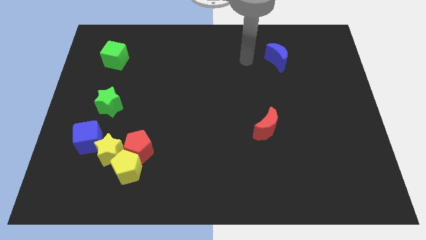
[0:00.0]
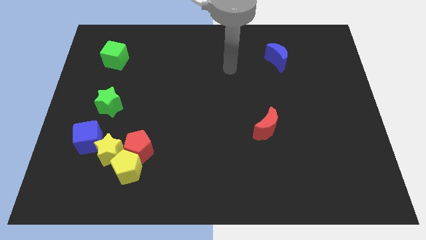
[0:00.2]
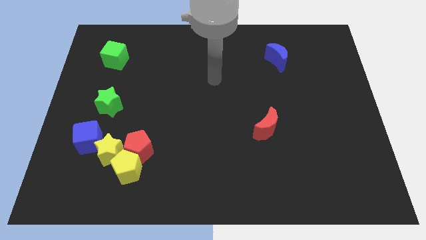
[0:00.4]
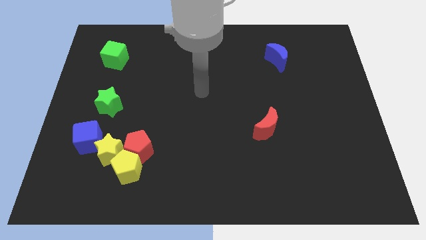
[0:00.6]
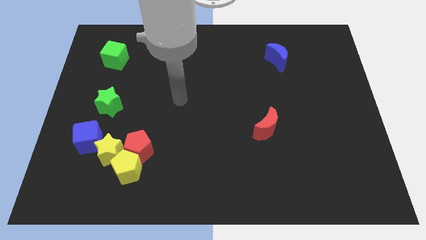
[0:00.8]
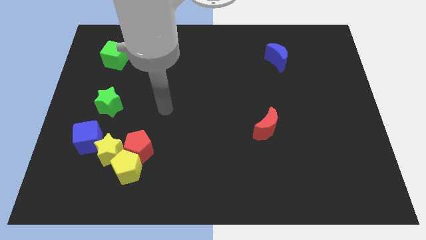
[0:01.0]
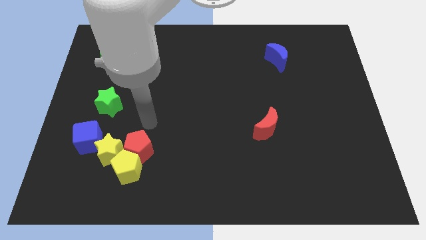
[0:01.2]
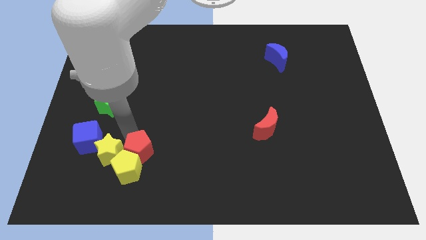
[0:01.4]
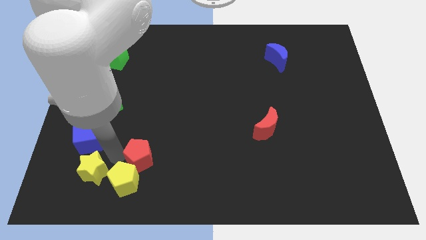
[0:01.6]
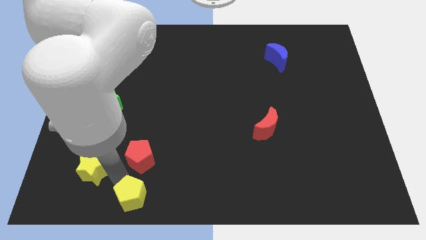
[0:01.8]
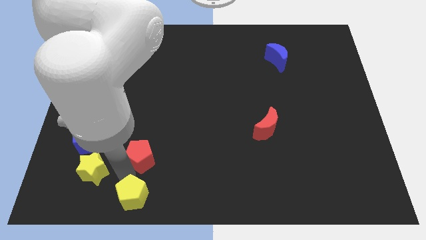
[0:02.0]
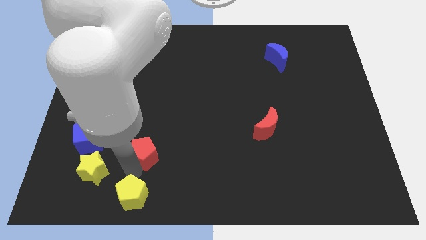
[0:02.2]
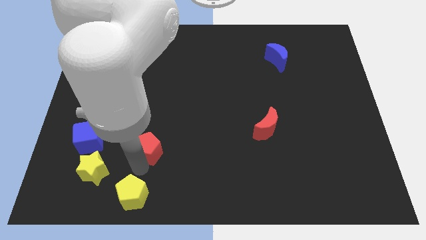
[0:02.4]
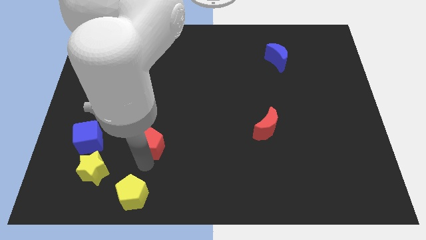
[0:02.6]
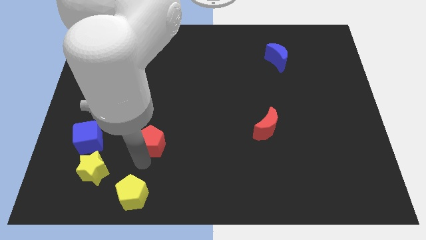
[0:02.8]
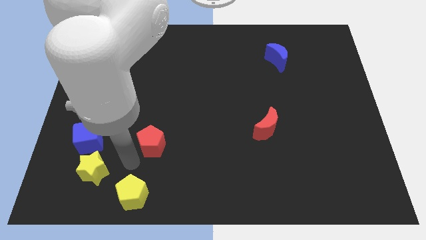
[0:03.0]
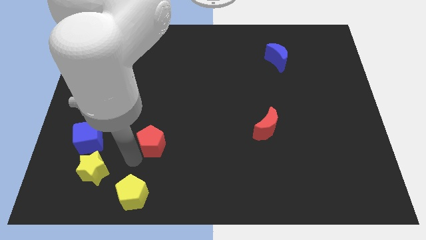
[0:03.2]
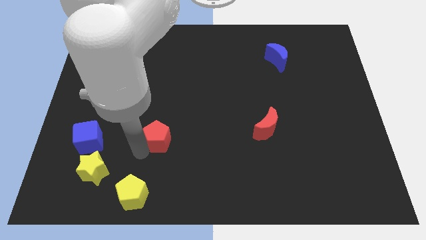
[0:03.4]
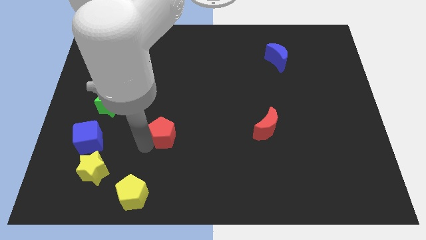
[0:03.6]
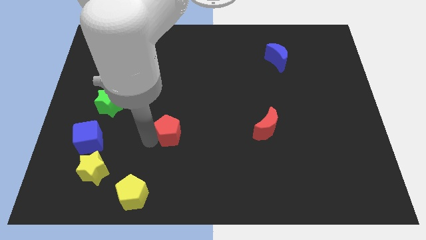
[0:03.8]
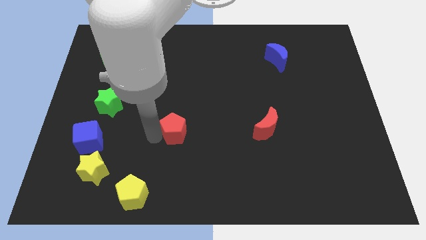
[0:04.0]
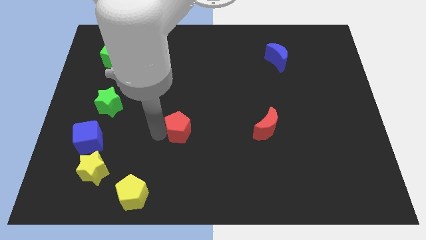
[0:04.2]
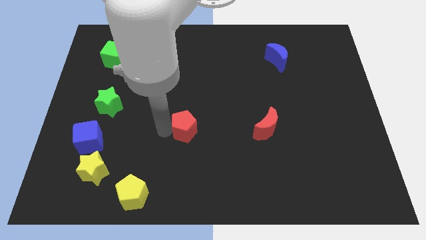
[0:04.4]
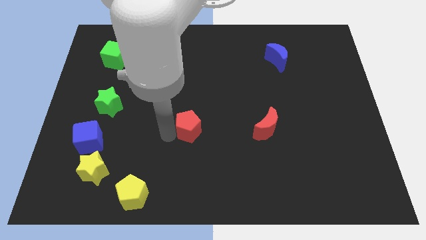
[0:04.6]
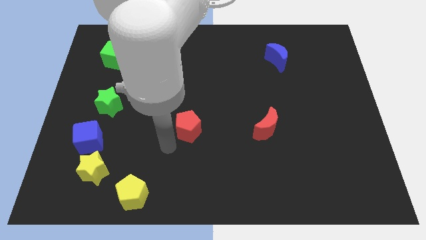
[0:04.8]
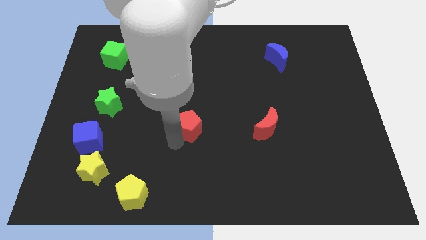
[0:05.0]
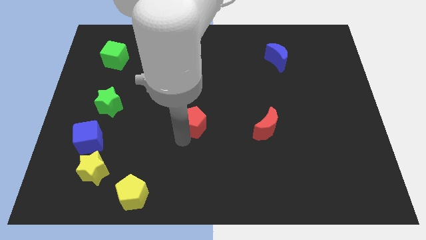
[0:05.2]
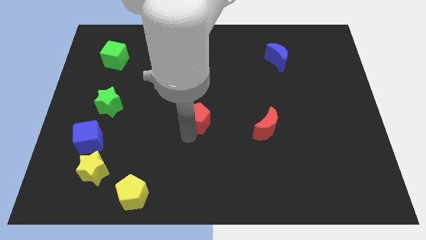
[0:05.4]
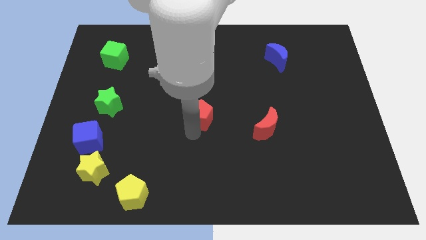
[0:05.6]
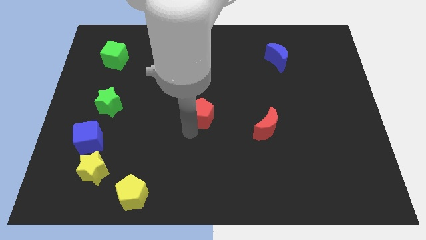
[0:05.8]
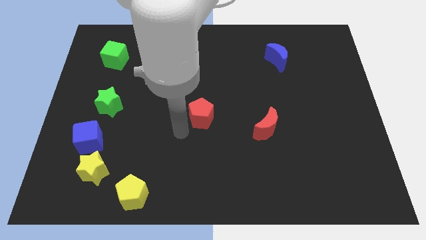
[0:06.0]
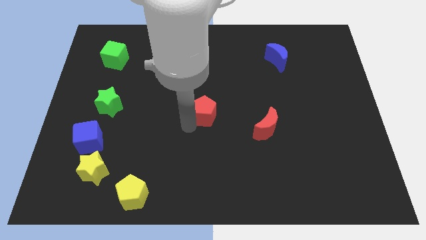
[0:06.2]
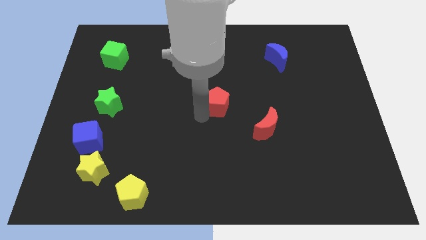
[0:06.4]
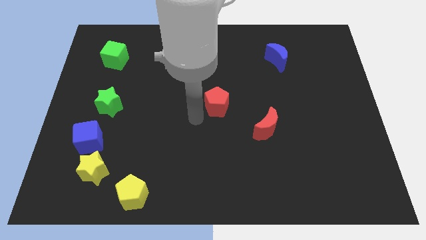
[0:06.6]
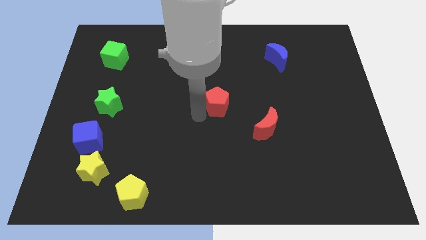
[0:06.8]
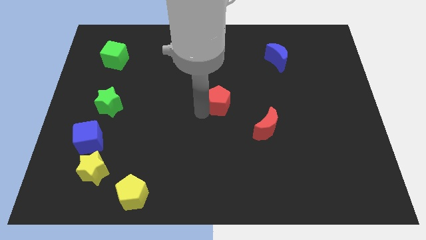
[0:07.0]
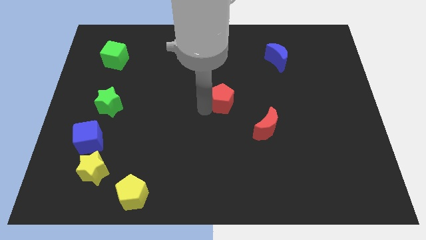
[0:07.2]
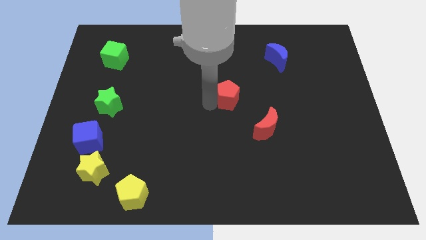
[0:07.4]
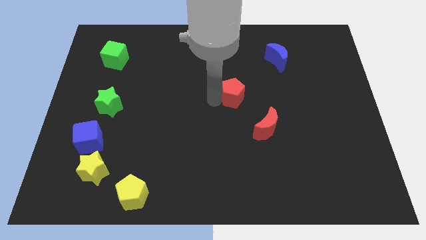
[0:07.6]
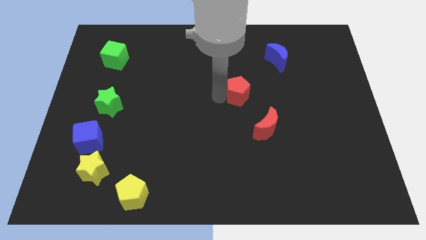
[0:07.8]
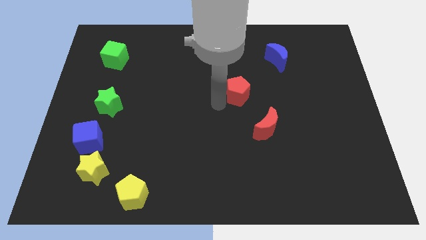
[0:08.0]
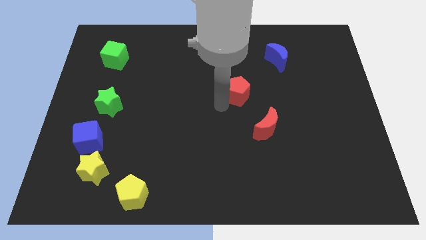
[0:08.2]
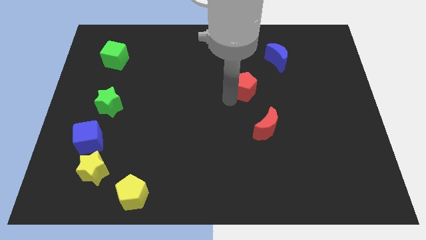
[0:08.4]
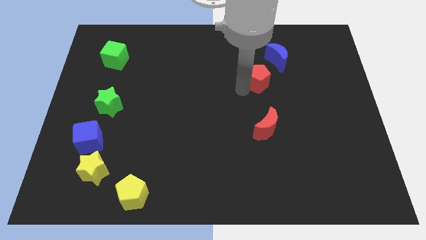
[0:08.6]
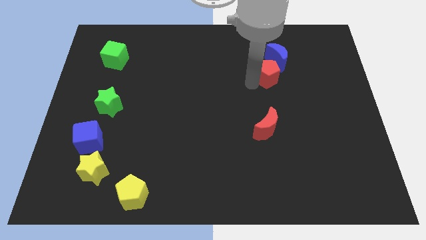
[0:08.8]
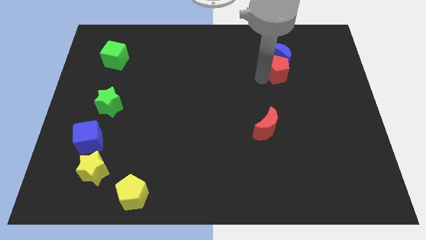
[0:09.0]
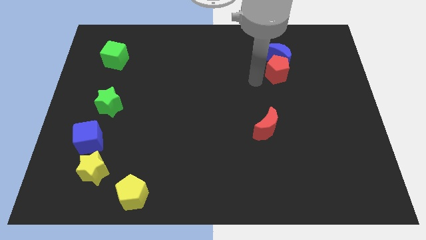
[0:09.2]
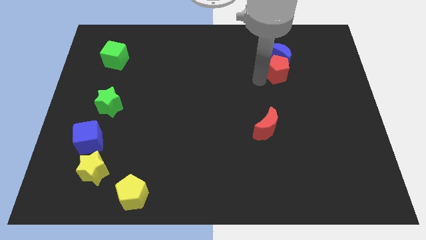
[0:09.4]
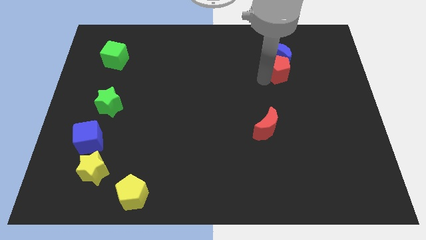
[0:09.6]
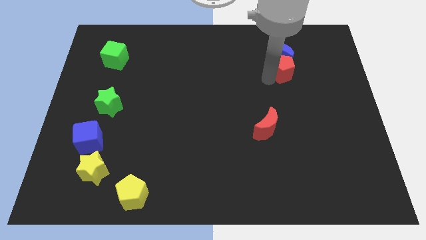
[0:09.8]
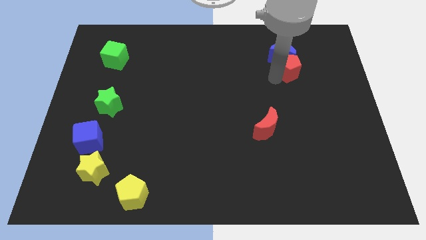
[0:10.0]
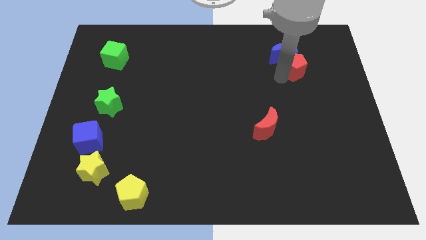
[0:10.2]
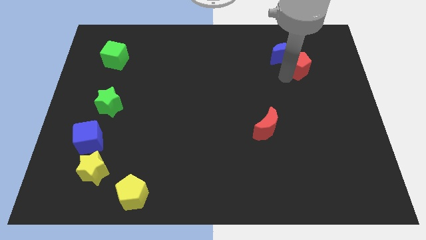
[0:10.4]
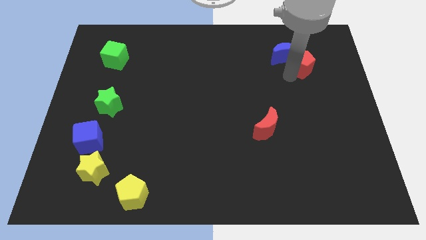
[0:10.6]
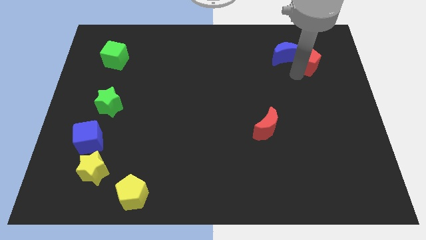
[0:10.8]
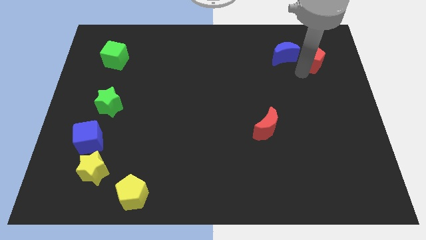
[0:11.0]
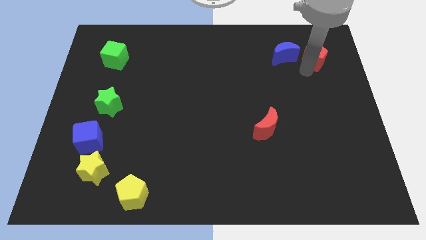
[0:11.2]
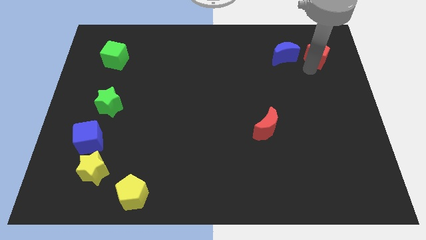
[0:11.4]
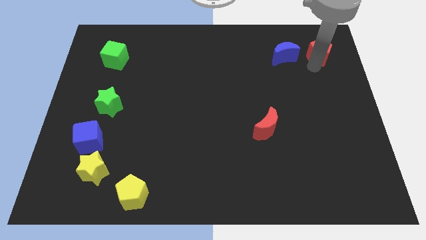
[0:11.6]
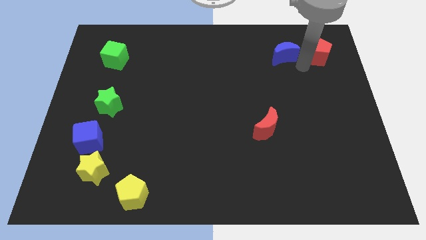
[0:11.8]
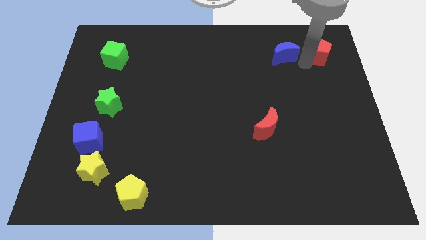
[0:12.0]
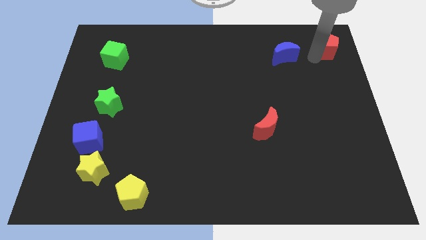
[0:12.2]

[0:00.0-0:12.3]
put the red pentagon to the top right of the board

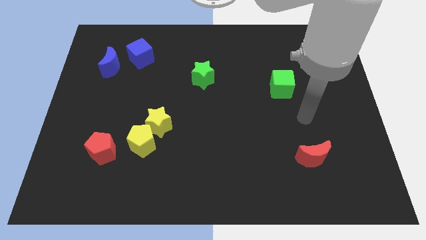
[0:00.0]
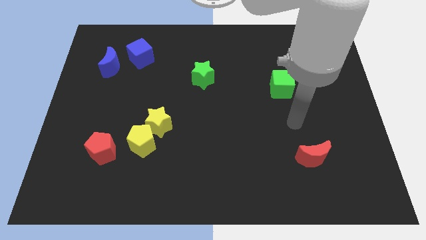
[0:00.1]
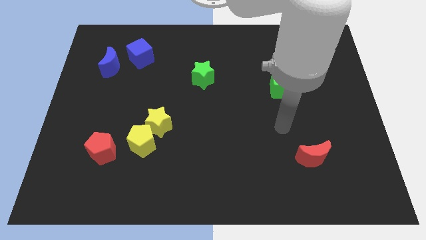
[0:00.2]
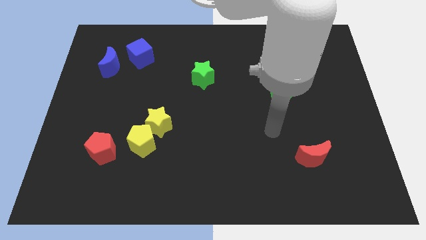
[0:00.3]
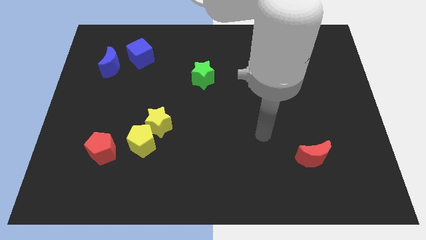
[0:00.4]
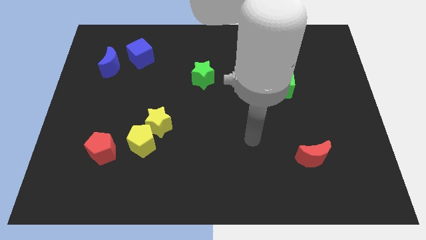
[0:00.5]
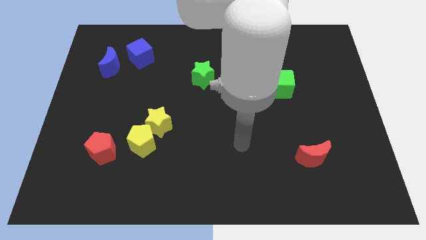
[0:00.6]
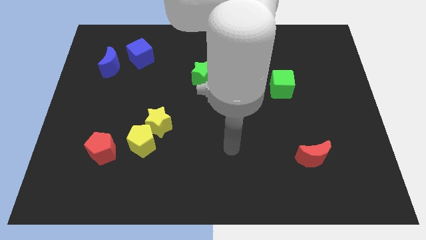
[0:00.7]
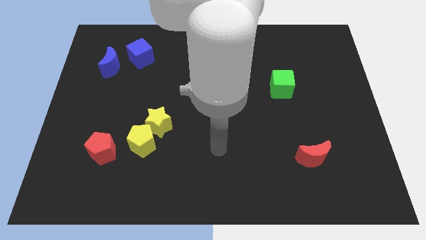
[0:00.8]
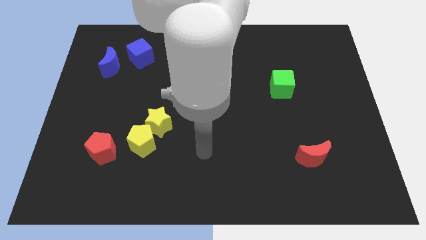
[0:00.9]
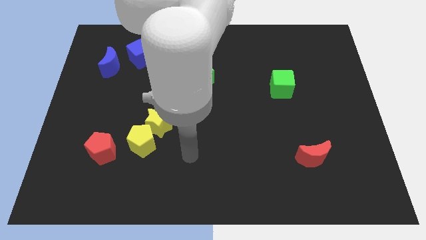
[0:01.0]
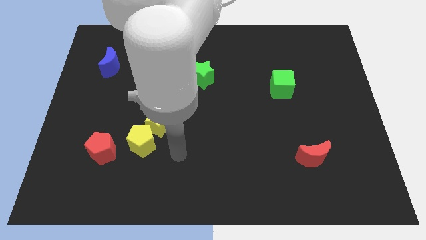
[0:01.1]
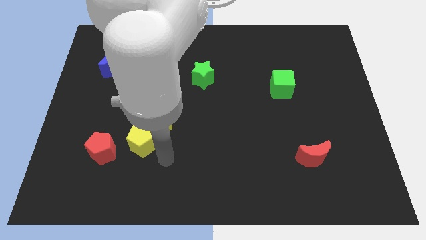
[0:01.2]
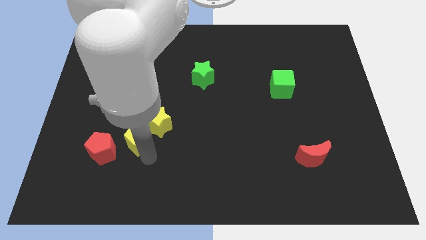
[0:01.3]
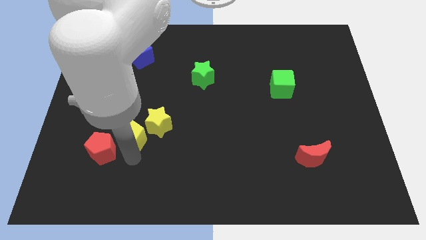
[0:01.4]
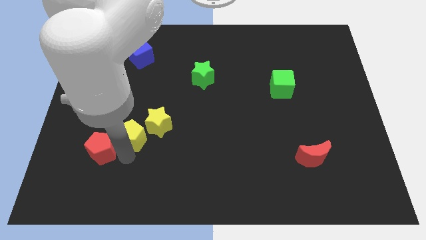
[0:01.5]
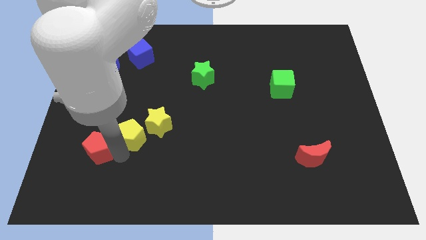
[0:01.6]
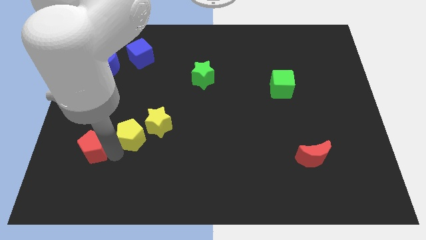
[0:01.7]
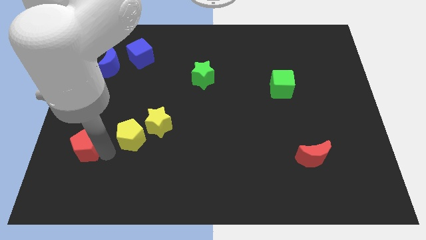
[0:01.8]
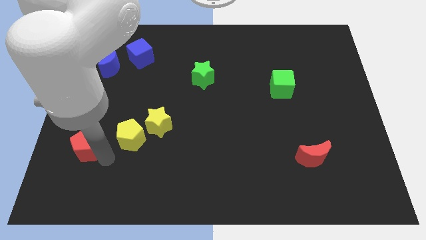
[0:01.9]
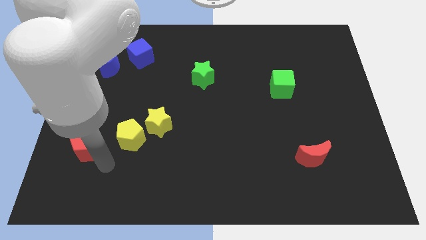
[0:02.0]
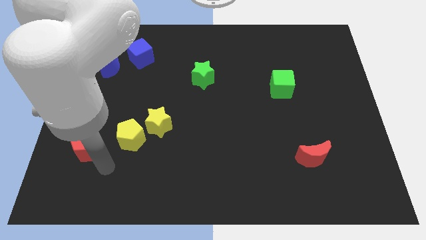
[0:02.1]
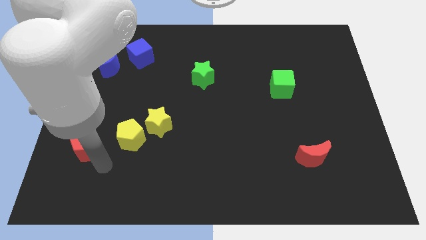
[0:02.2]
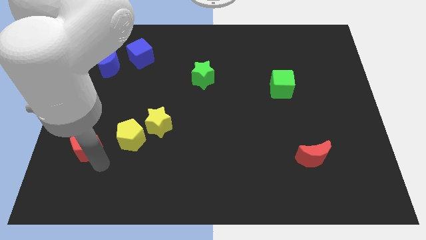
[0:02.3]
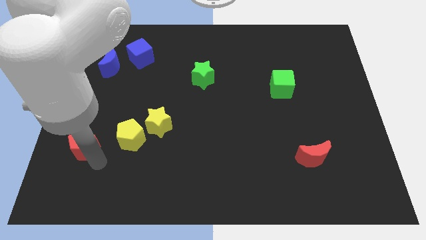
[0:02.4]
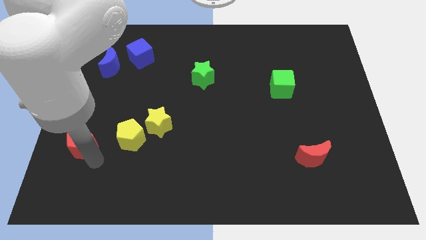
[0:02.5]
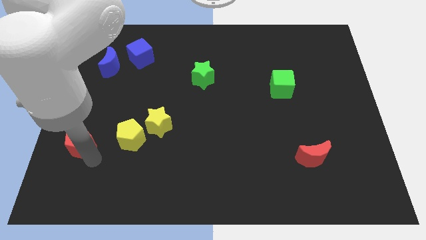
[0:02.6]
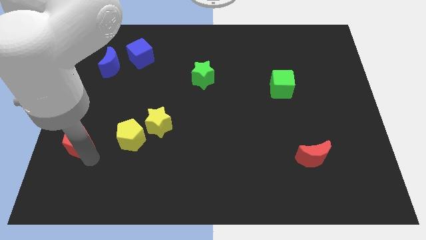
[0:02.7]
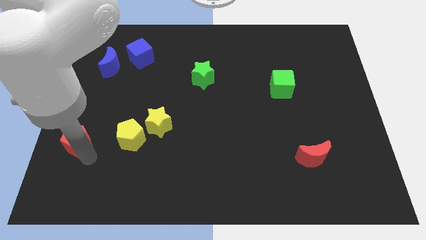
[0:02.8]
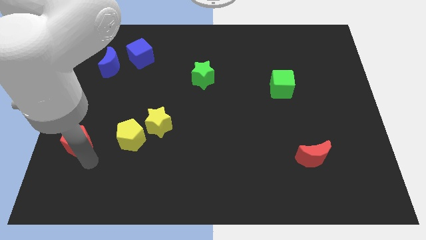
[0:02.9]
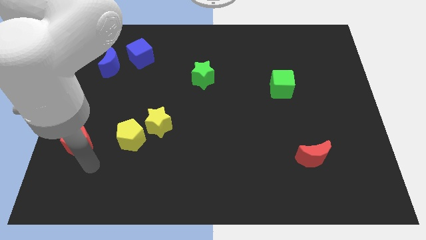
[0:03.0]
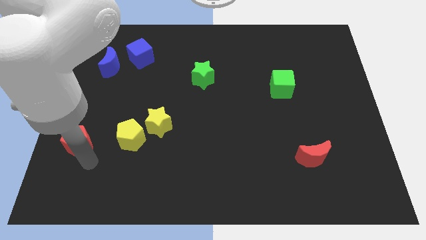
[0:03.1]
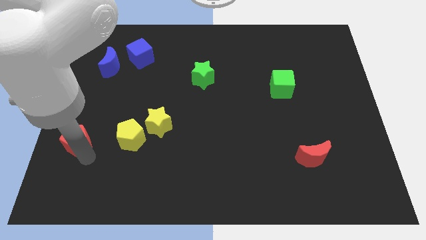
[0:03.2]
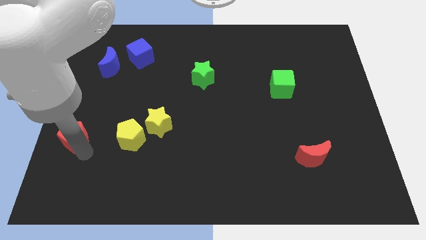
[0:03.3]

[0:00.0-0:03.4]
slide the red pentagon to the center left
